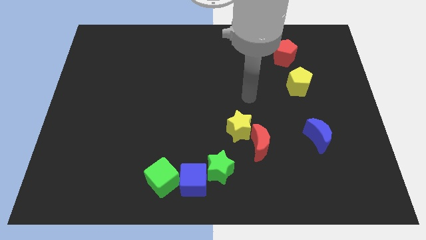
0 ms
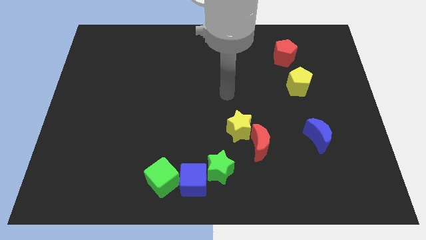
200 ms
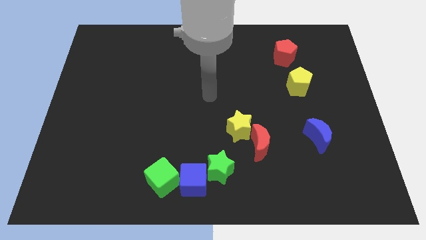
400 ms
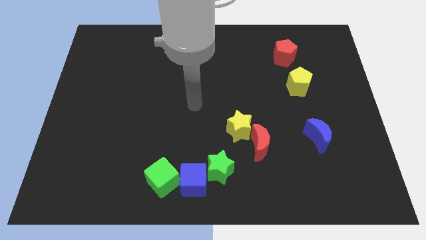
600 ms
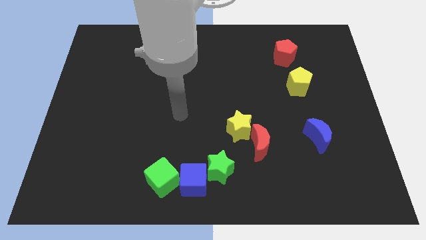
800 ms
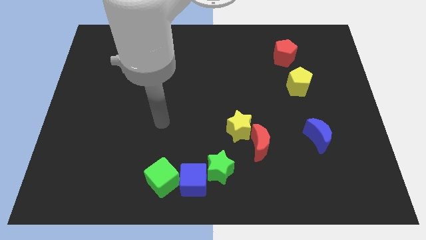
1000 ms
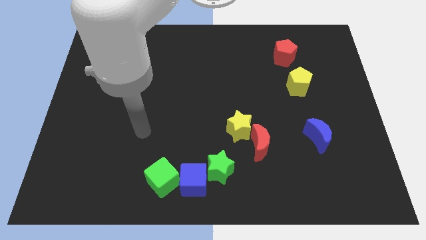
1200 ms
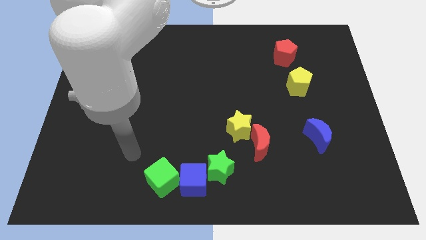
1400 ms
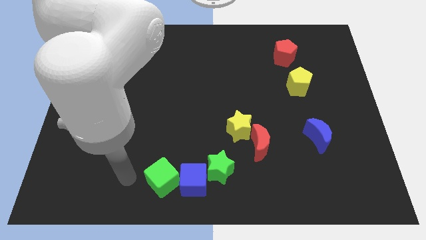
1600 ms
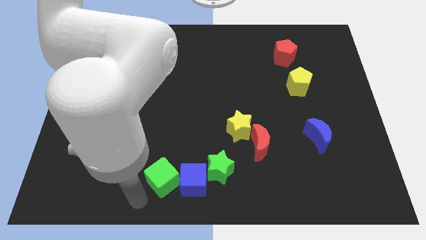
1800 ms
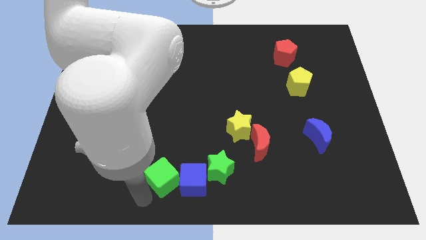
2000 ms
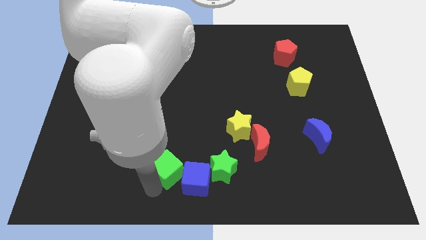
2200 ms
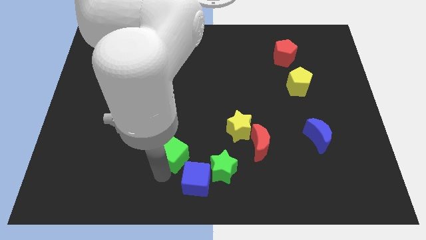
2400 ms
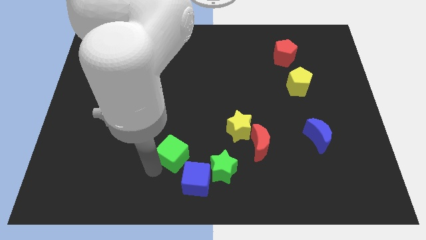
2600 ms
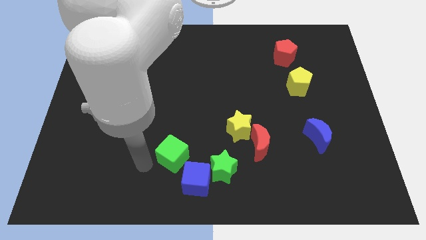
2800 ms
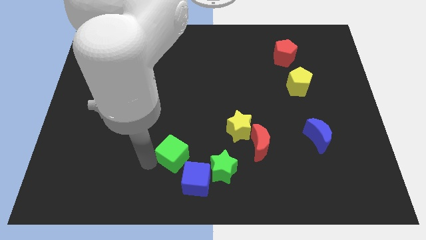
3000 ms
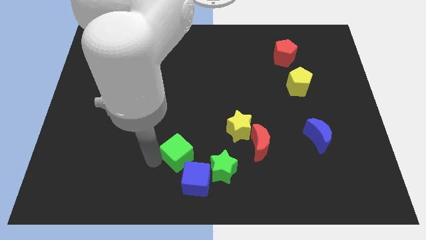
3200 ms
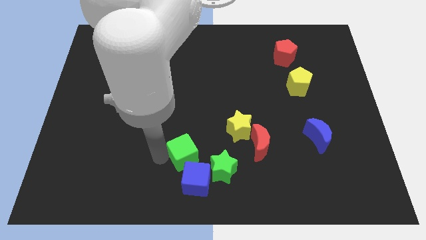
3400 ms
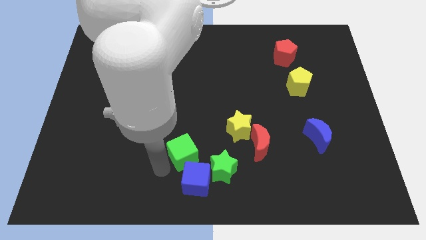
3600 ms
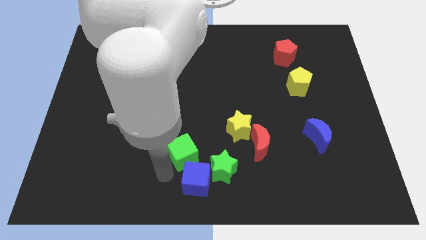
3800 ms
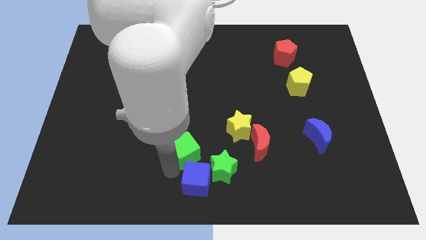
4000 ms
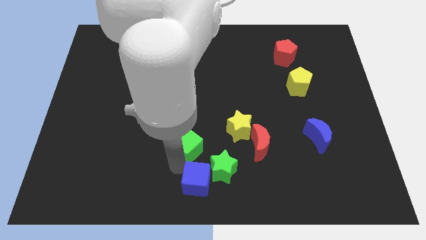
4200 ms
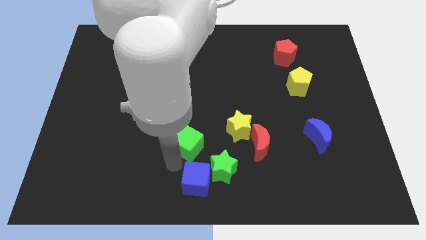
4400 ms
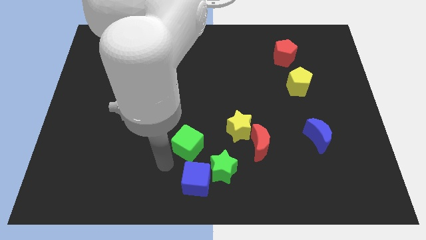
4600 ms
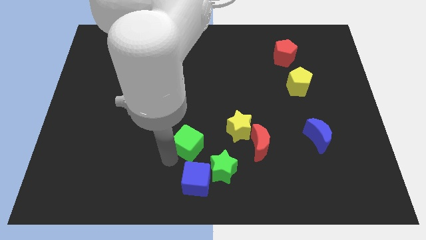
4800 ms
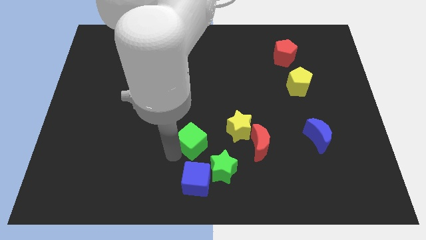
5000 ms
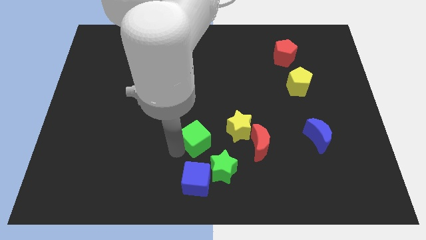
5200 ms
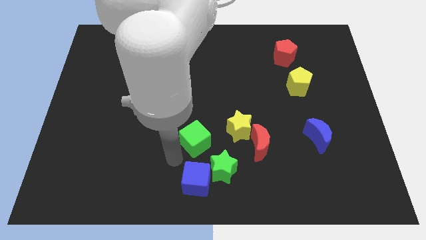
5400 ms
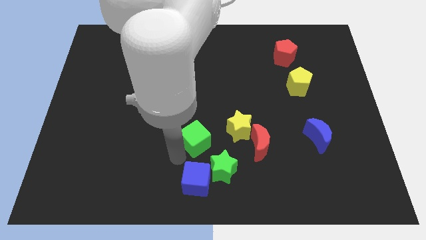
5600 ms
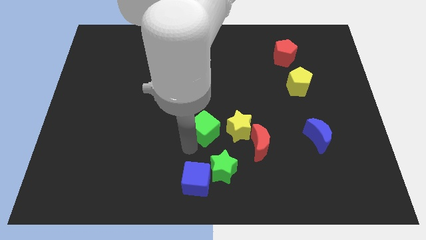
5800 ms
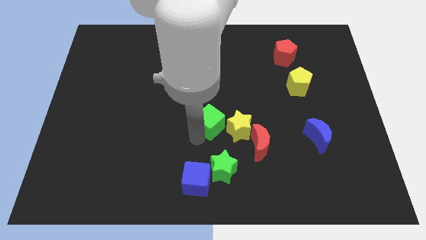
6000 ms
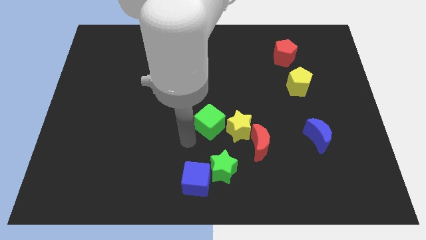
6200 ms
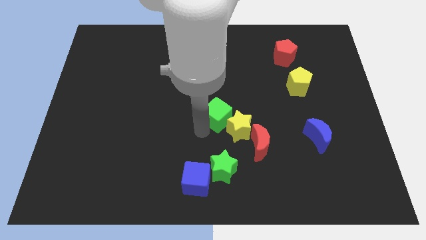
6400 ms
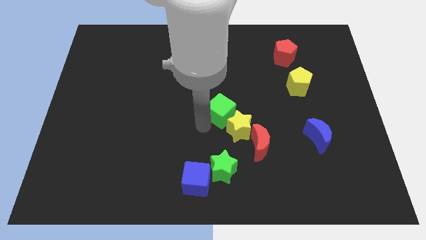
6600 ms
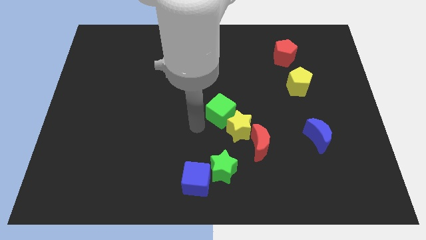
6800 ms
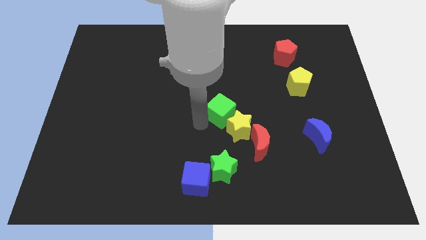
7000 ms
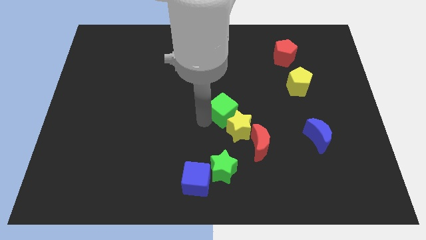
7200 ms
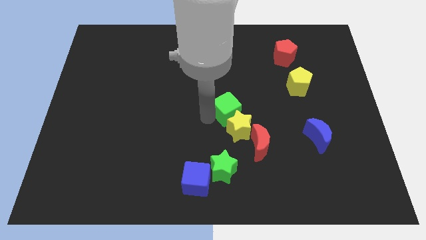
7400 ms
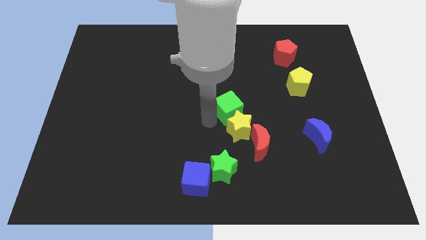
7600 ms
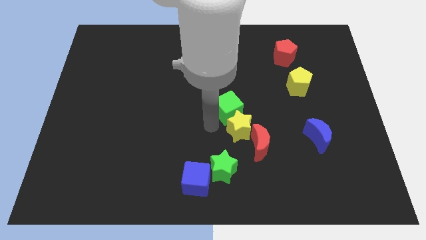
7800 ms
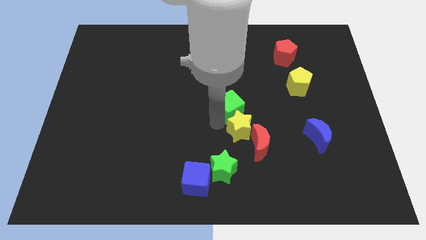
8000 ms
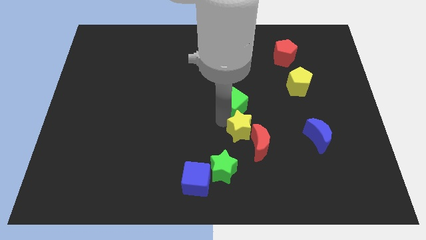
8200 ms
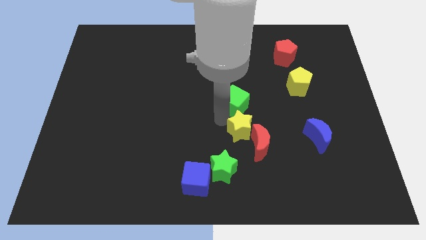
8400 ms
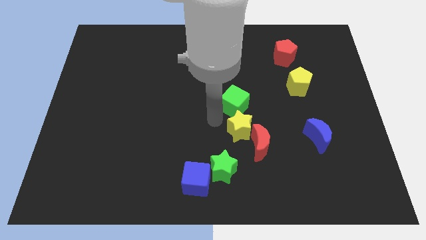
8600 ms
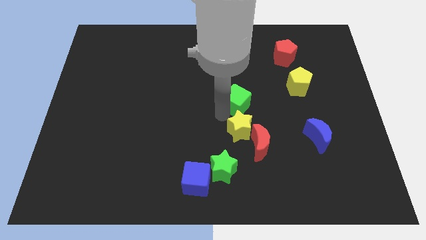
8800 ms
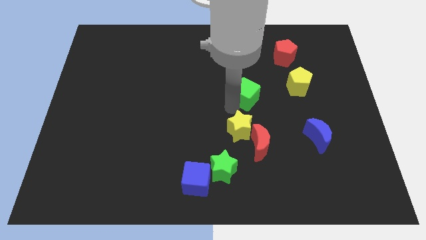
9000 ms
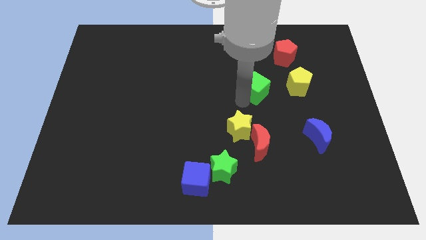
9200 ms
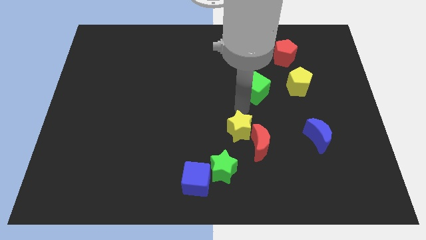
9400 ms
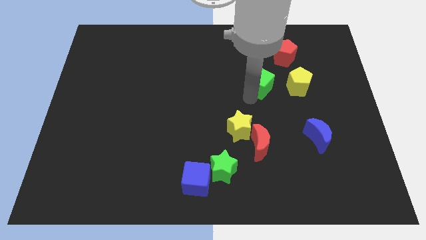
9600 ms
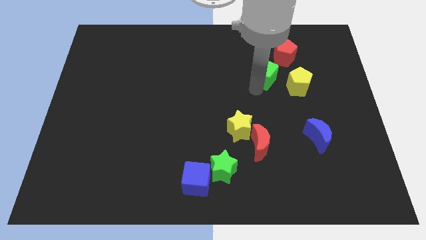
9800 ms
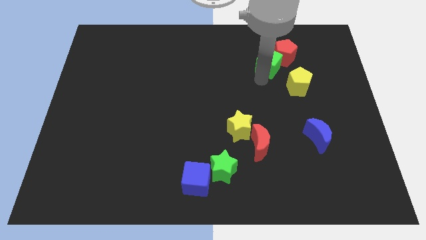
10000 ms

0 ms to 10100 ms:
put the green cube close to the red pentagon

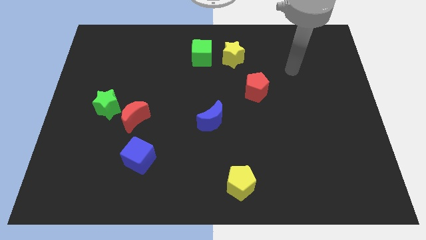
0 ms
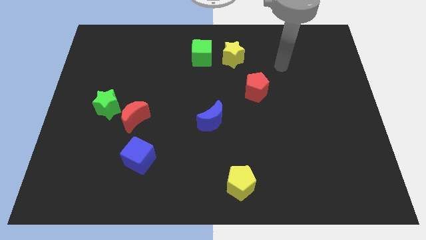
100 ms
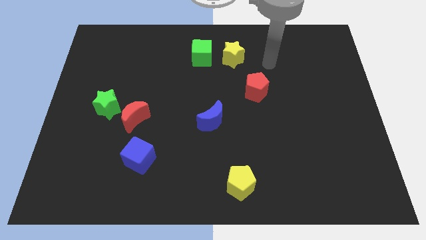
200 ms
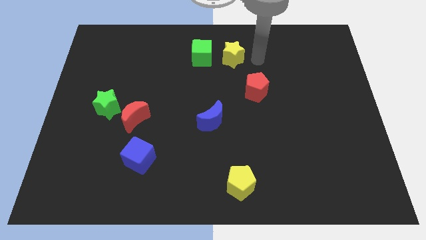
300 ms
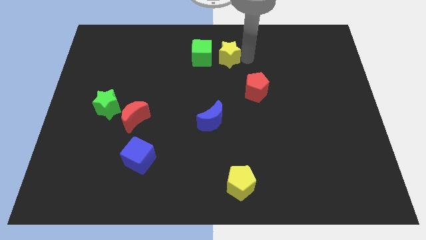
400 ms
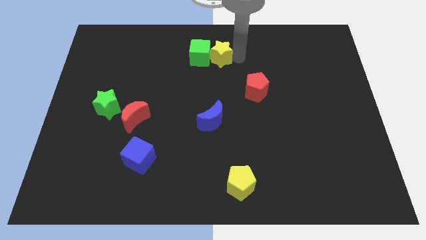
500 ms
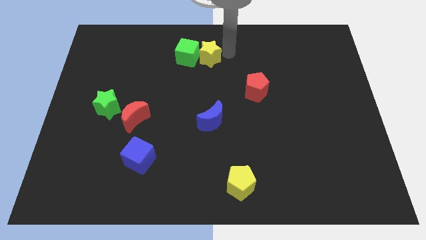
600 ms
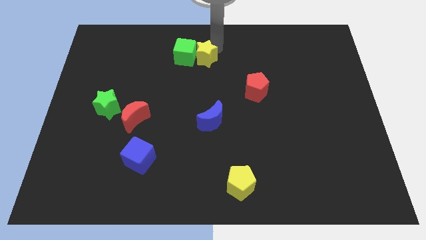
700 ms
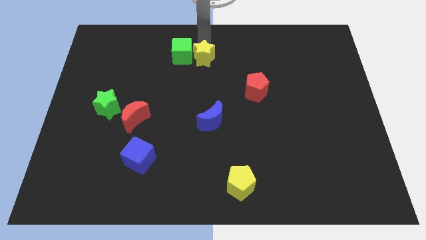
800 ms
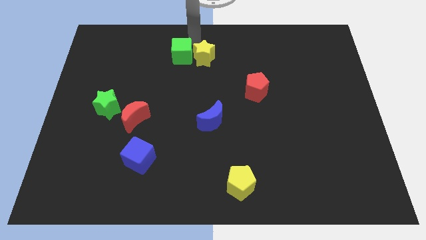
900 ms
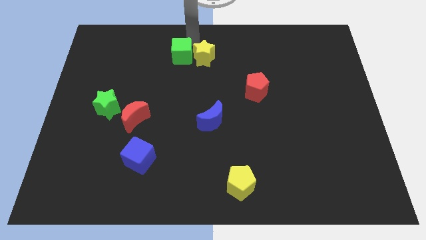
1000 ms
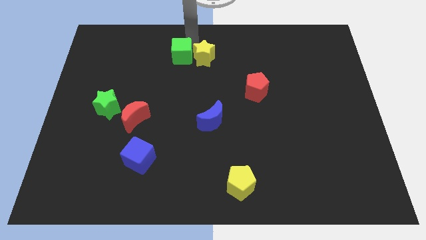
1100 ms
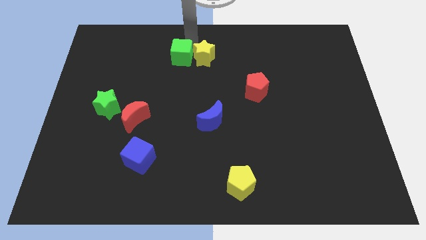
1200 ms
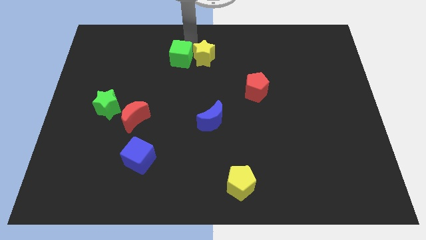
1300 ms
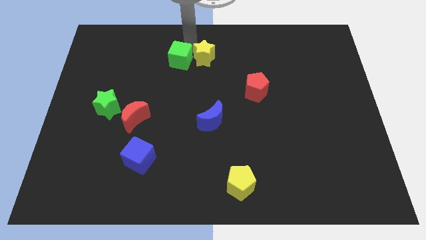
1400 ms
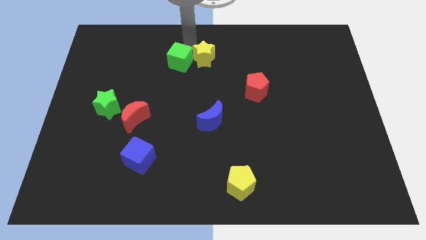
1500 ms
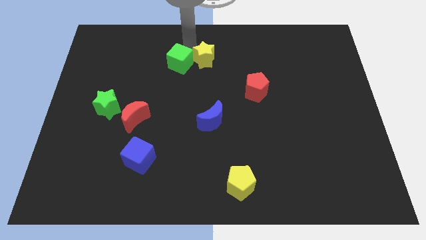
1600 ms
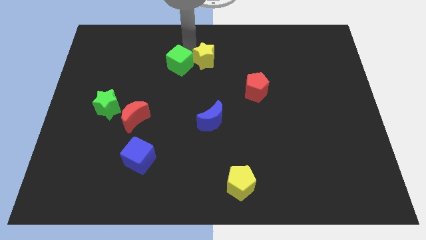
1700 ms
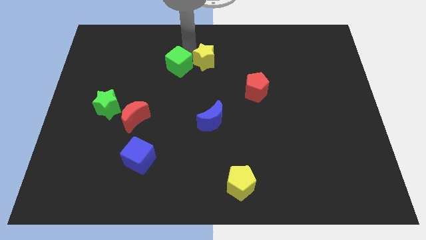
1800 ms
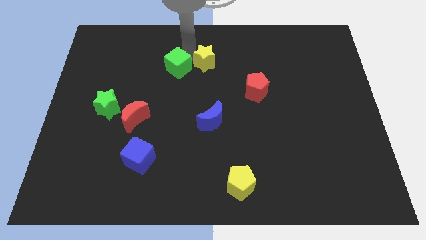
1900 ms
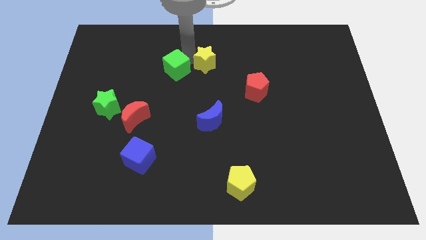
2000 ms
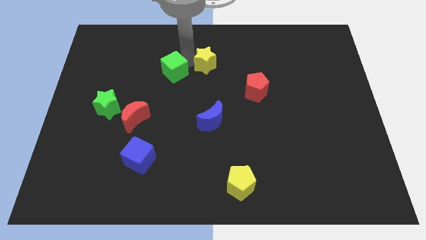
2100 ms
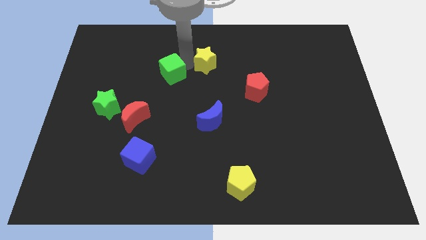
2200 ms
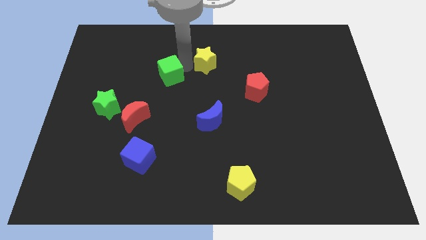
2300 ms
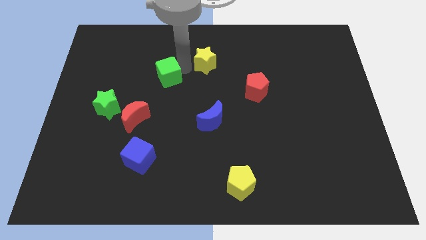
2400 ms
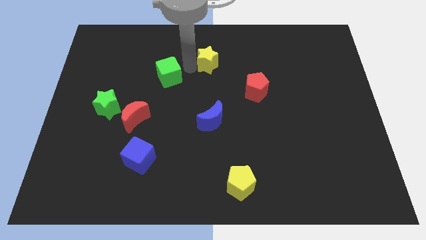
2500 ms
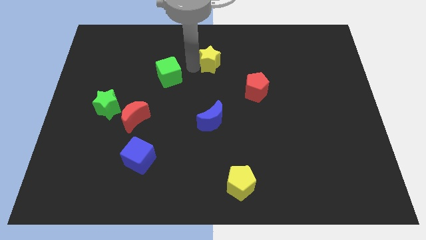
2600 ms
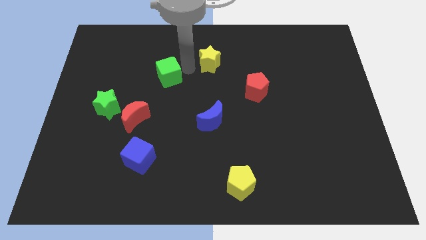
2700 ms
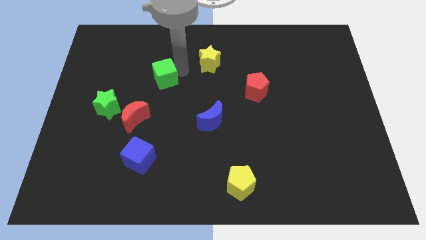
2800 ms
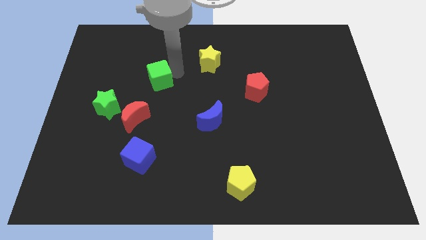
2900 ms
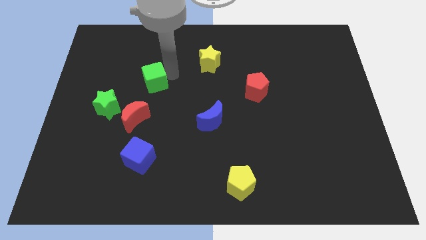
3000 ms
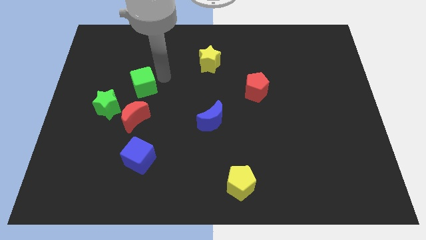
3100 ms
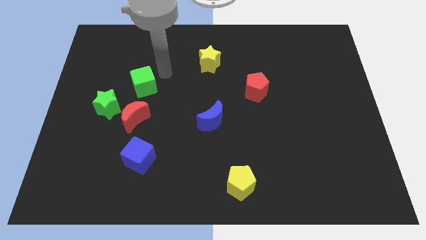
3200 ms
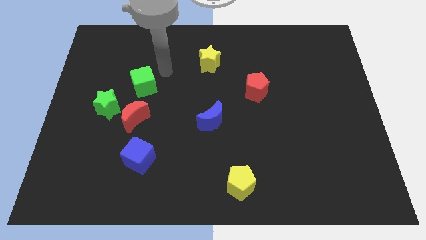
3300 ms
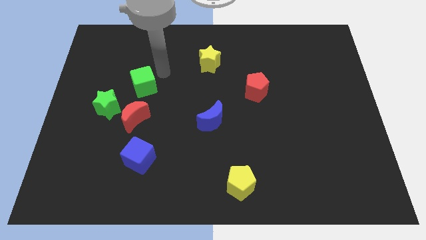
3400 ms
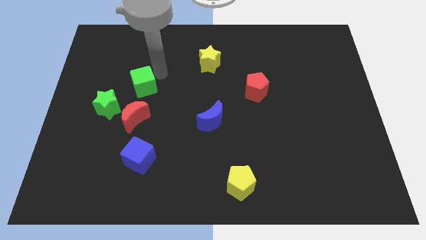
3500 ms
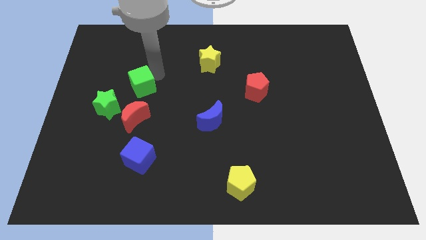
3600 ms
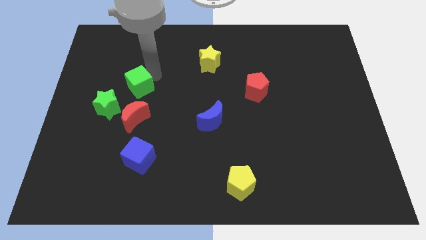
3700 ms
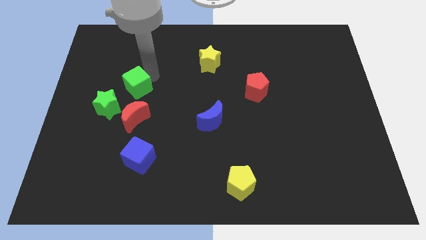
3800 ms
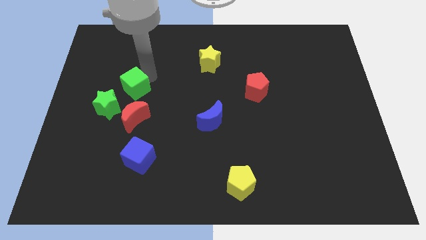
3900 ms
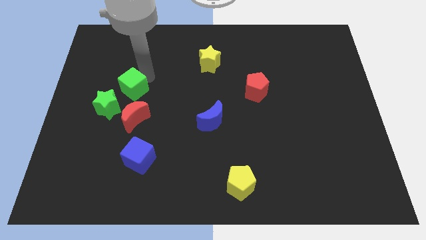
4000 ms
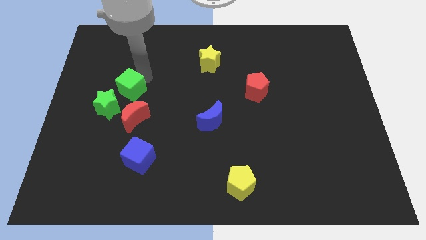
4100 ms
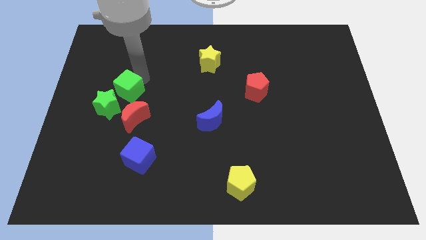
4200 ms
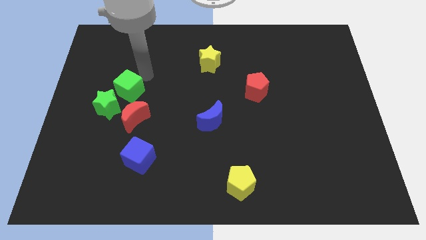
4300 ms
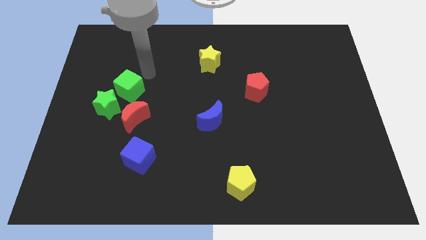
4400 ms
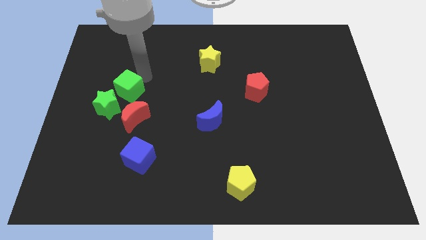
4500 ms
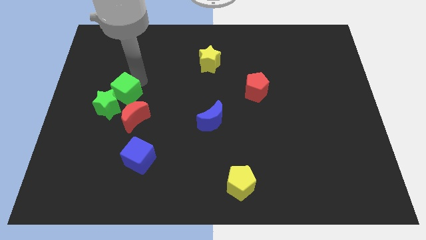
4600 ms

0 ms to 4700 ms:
move the green cube to the green star
